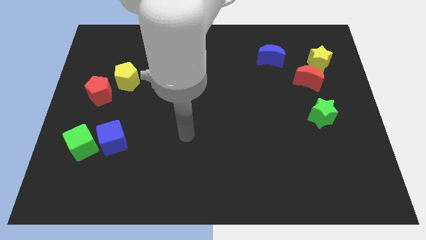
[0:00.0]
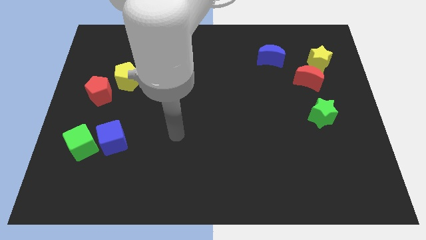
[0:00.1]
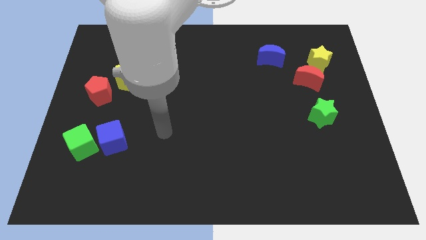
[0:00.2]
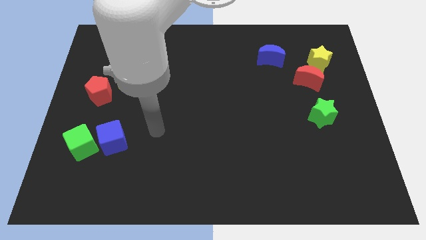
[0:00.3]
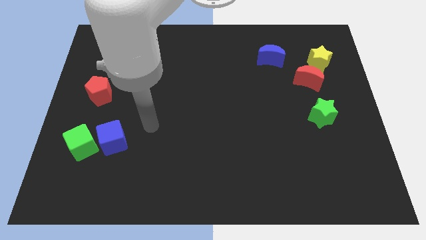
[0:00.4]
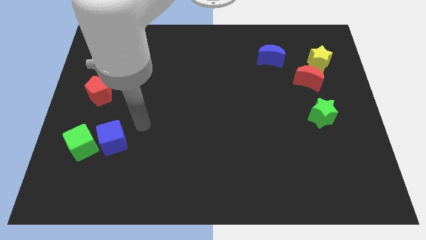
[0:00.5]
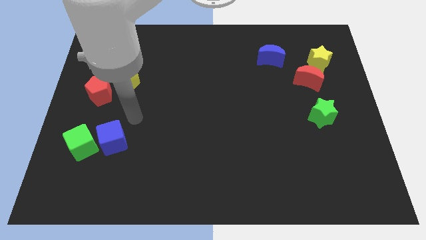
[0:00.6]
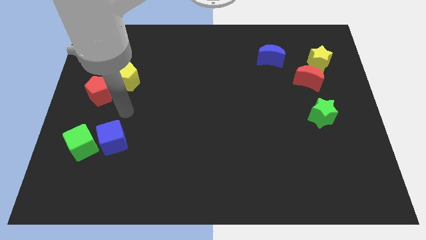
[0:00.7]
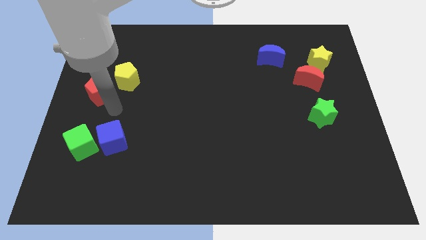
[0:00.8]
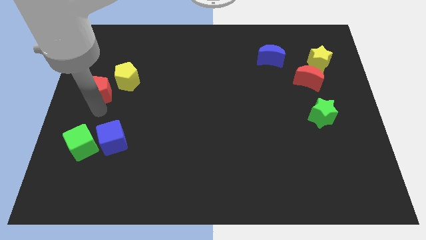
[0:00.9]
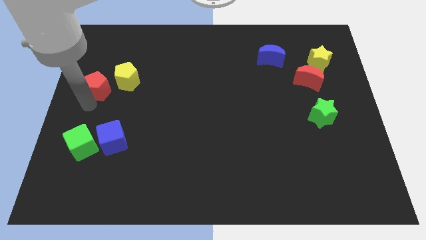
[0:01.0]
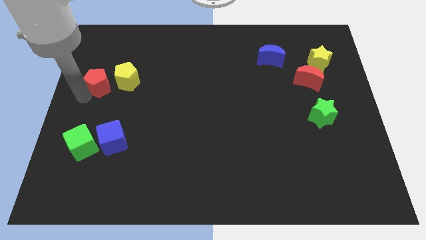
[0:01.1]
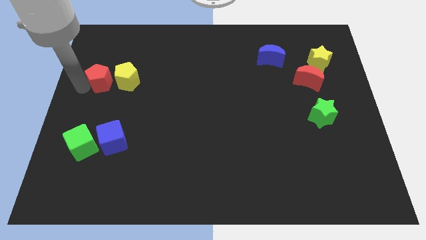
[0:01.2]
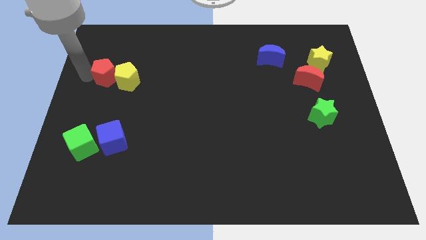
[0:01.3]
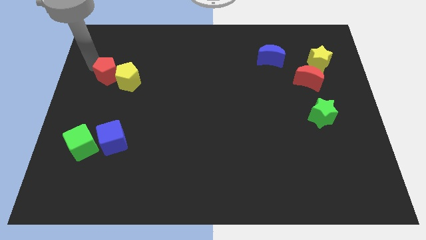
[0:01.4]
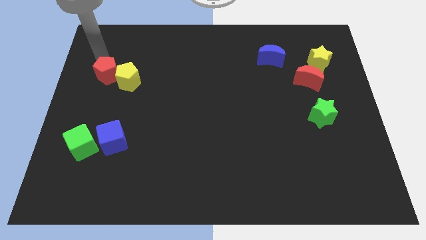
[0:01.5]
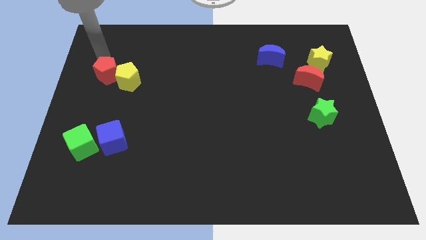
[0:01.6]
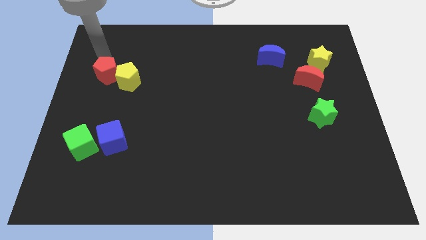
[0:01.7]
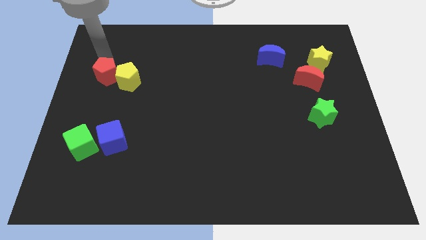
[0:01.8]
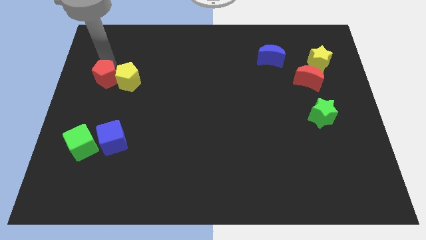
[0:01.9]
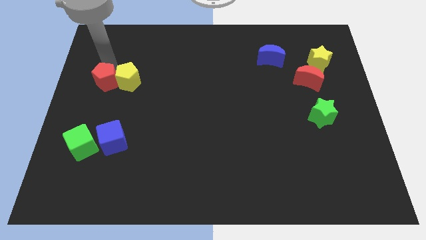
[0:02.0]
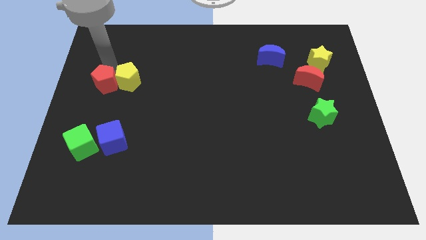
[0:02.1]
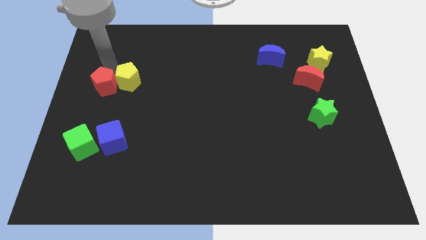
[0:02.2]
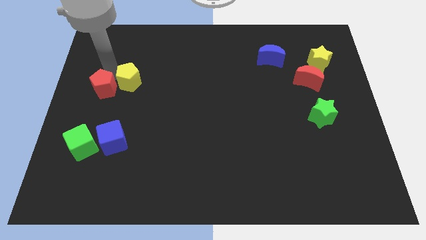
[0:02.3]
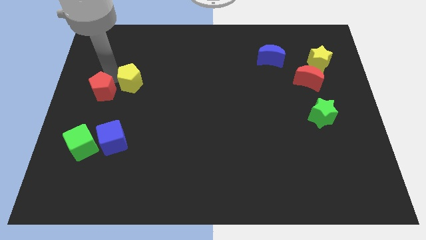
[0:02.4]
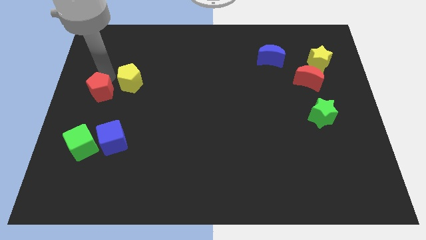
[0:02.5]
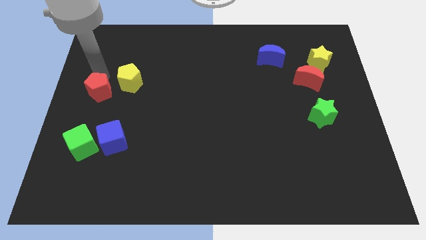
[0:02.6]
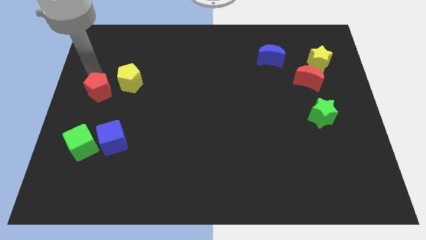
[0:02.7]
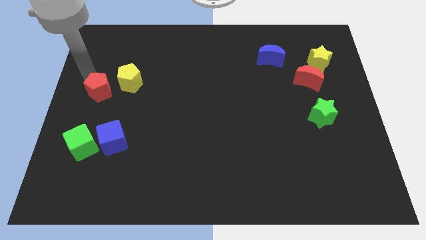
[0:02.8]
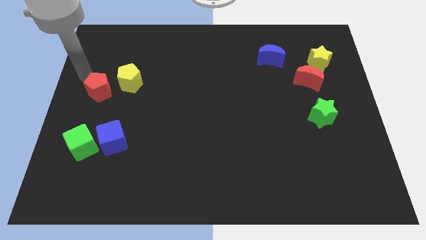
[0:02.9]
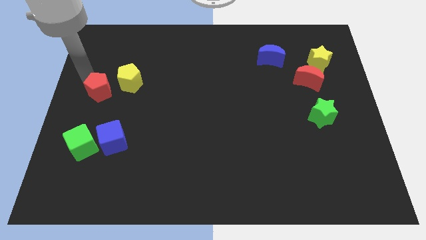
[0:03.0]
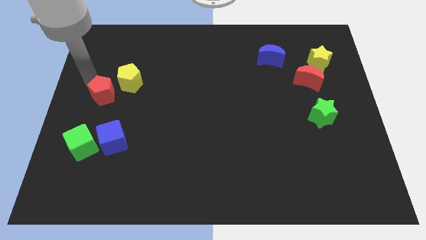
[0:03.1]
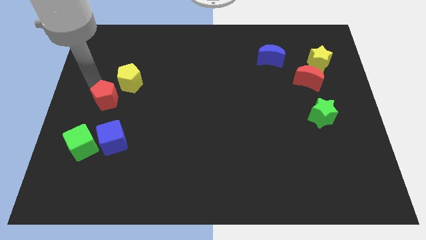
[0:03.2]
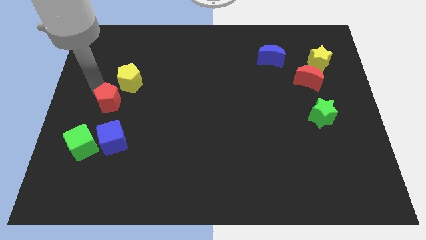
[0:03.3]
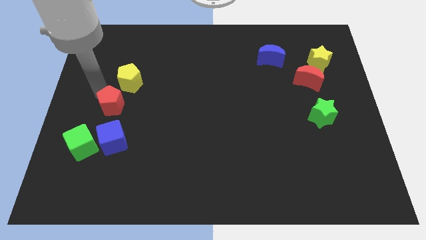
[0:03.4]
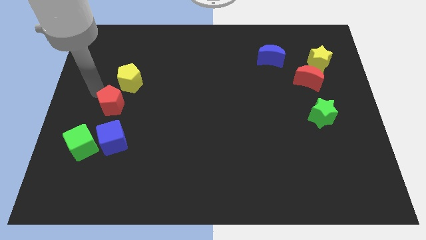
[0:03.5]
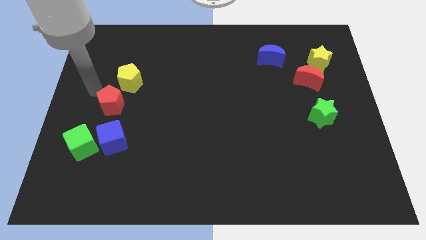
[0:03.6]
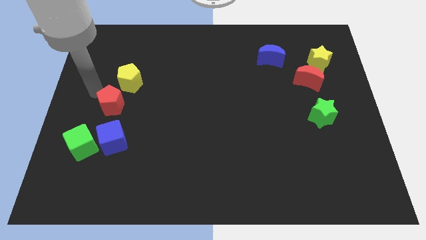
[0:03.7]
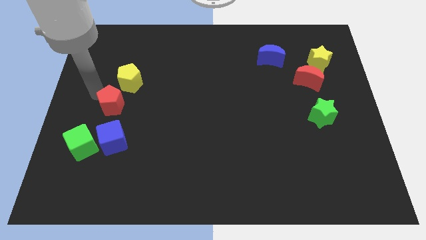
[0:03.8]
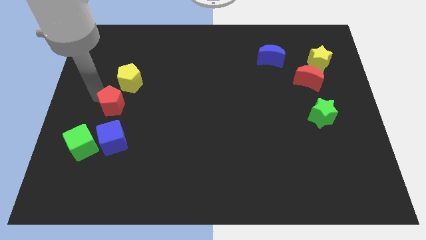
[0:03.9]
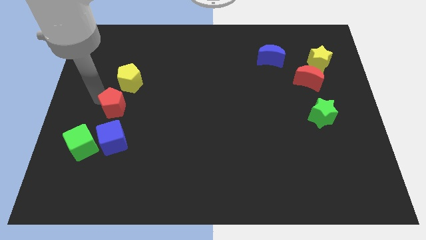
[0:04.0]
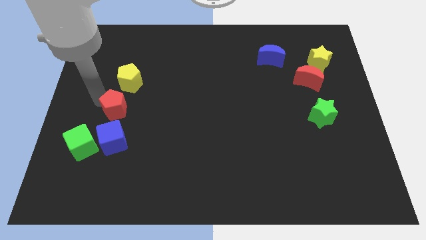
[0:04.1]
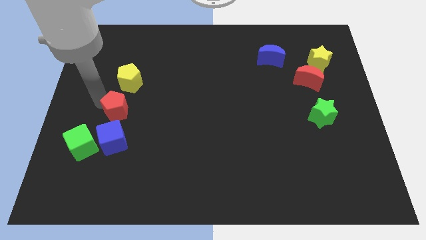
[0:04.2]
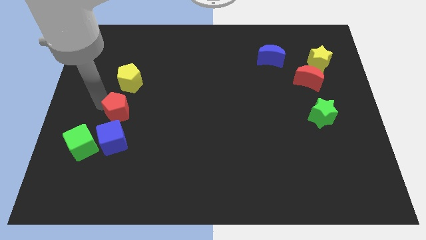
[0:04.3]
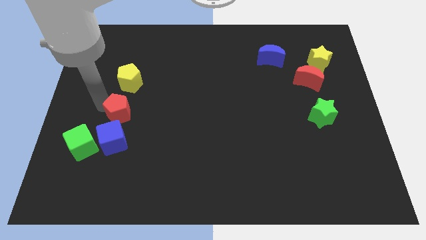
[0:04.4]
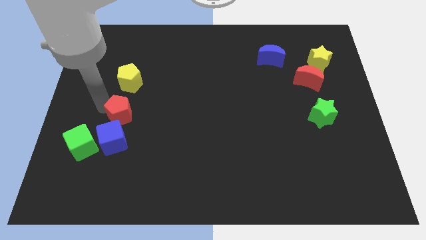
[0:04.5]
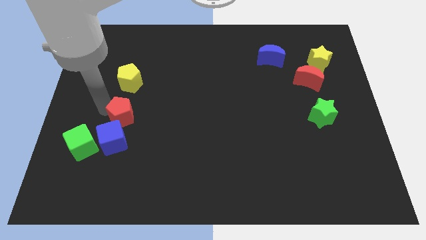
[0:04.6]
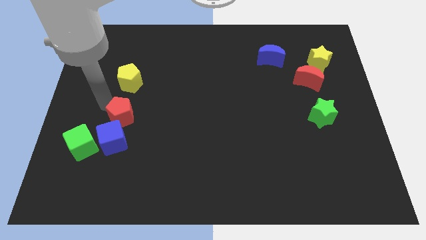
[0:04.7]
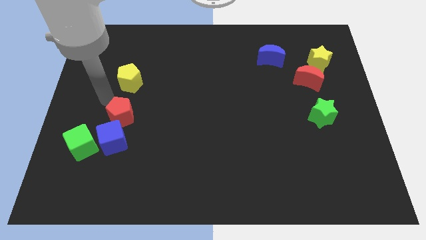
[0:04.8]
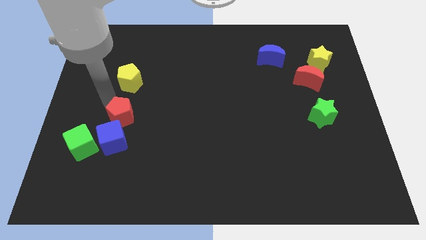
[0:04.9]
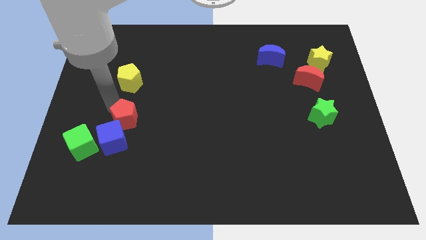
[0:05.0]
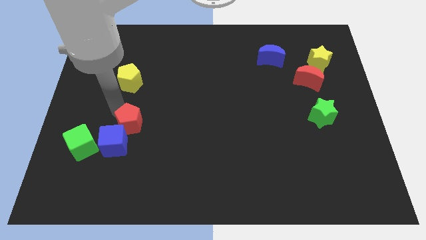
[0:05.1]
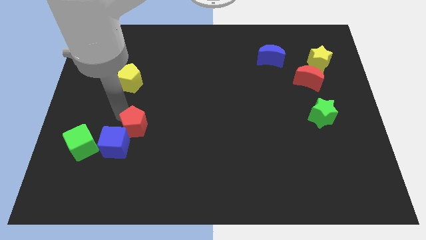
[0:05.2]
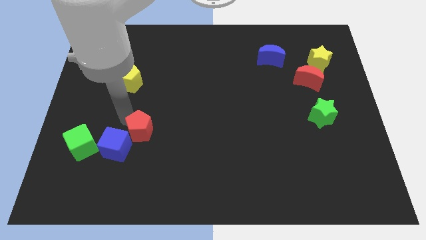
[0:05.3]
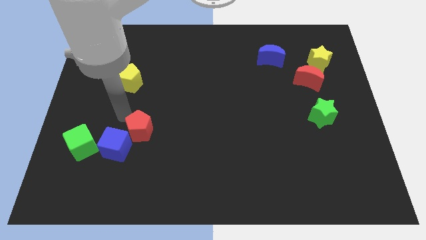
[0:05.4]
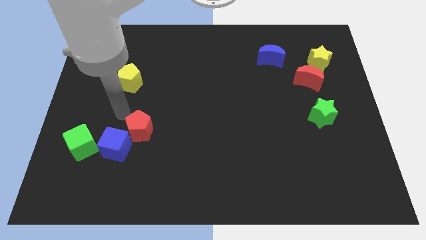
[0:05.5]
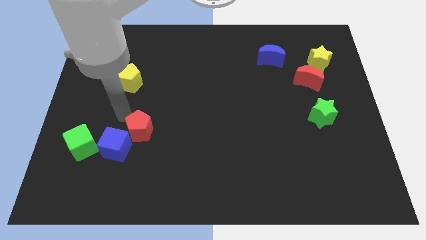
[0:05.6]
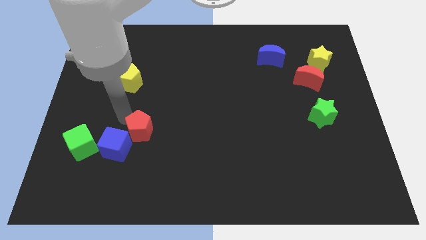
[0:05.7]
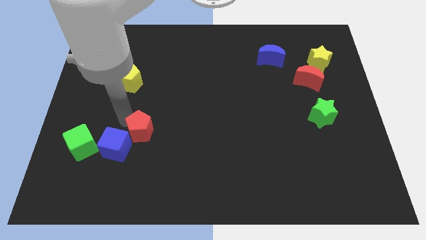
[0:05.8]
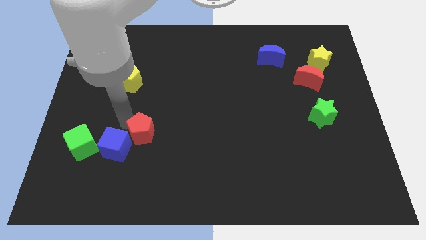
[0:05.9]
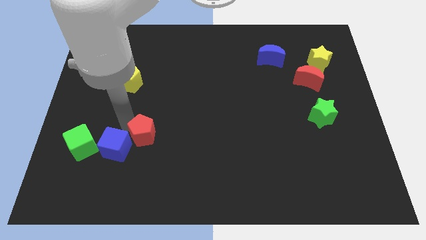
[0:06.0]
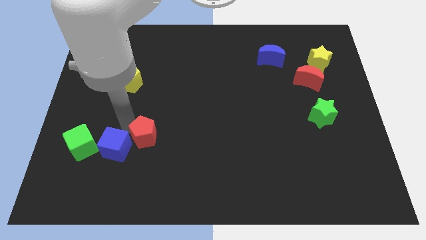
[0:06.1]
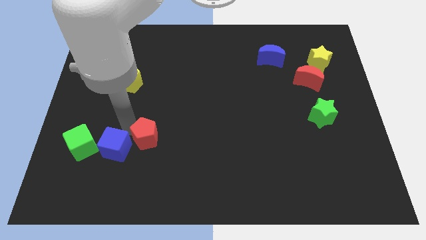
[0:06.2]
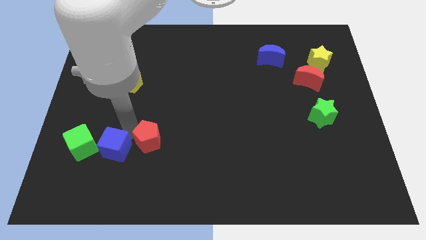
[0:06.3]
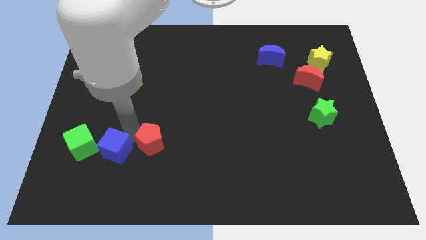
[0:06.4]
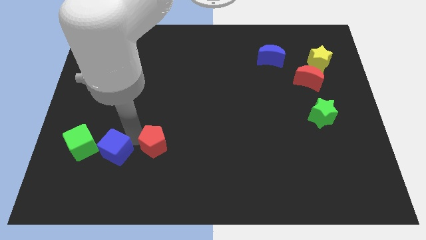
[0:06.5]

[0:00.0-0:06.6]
slide the red pentagon down and to the right diagonally

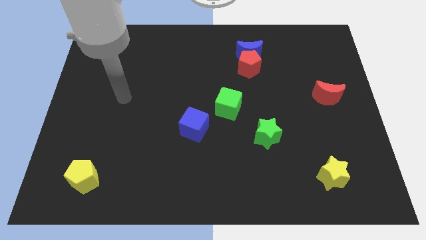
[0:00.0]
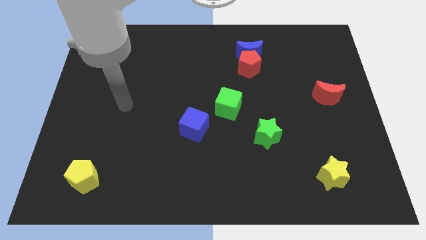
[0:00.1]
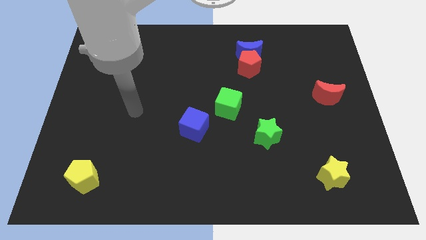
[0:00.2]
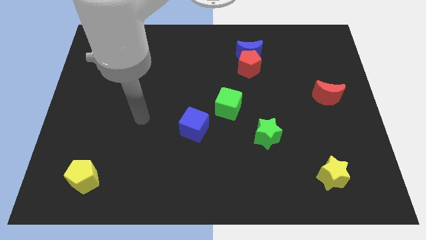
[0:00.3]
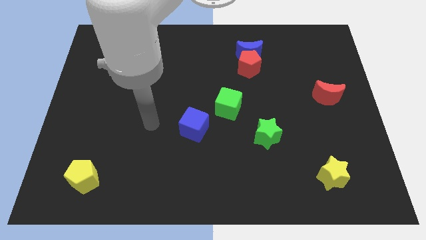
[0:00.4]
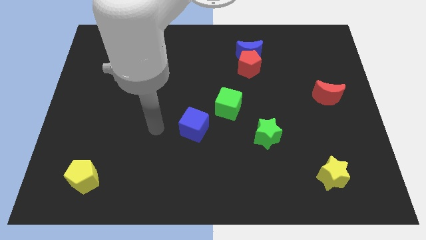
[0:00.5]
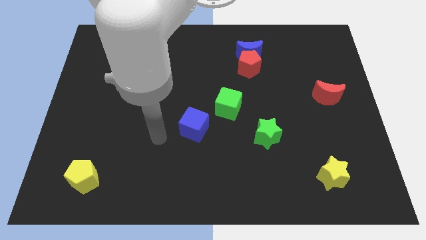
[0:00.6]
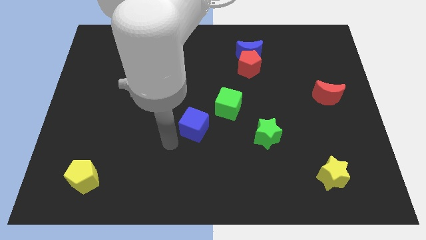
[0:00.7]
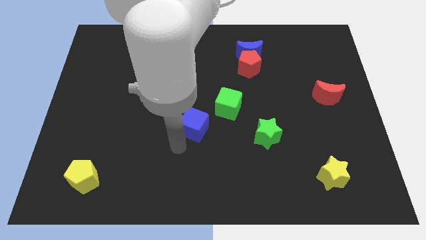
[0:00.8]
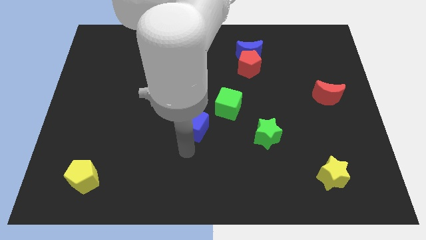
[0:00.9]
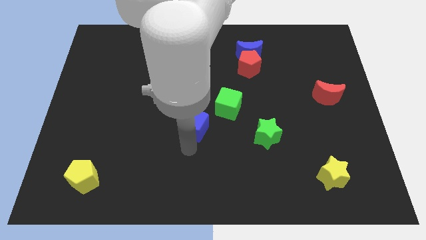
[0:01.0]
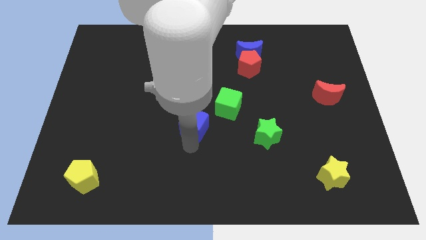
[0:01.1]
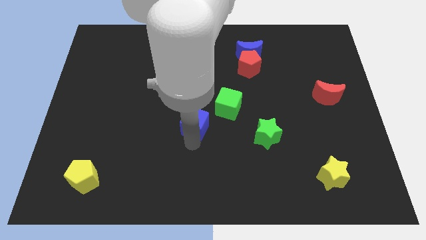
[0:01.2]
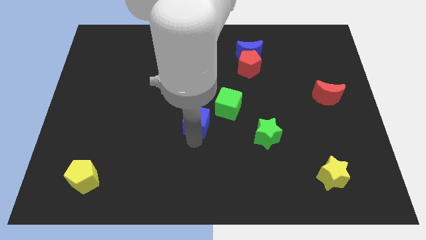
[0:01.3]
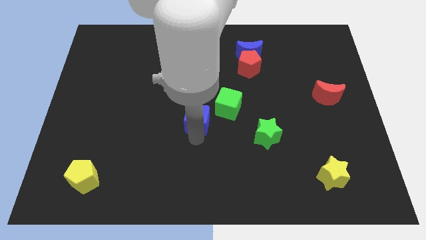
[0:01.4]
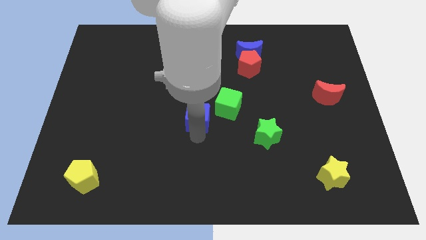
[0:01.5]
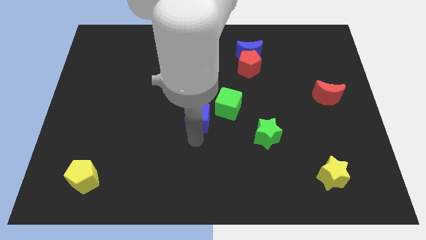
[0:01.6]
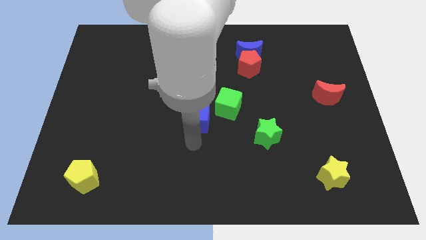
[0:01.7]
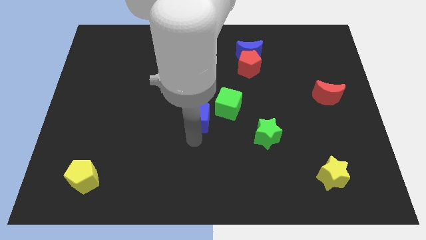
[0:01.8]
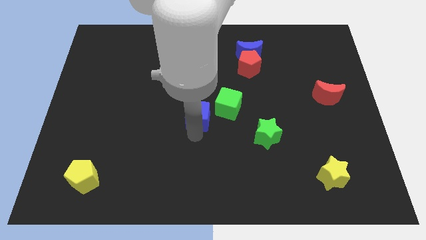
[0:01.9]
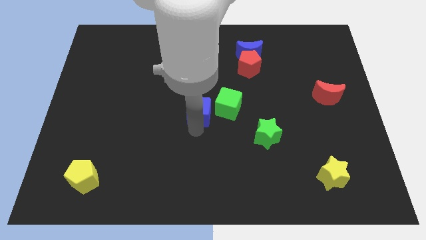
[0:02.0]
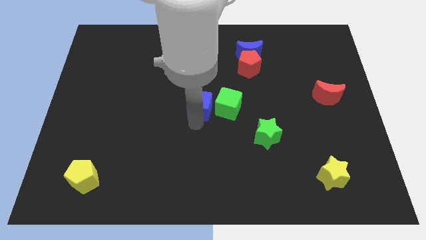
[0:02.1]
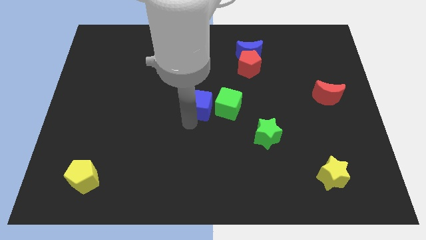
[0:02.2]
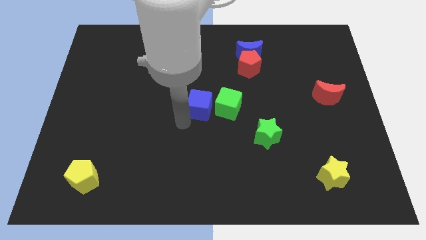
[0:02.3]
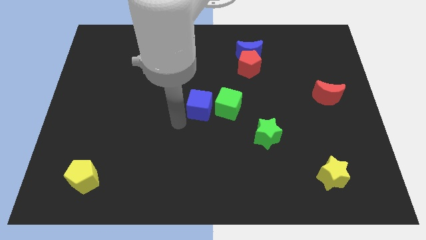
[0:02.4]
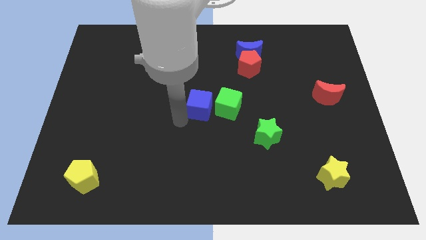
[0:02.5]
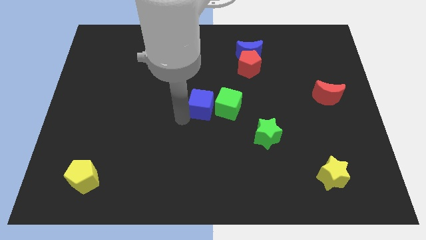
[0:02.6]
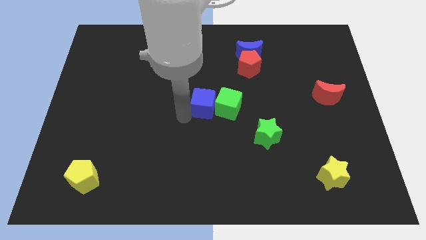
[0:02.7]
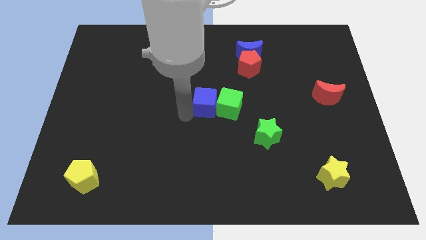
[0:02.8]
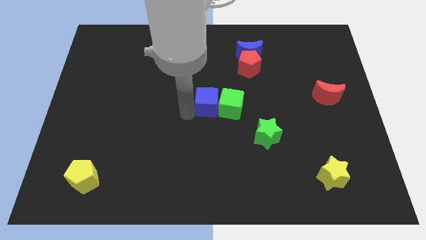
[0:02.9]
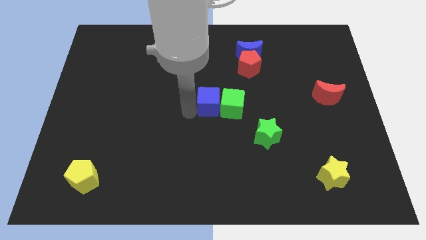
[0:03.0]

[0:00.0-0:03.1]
slightly push the blue cube upwards and to the right
